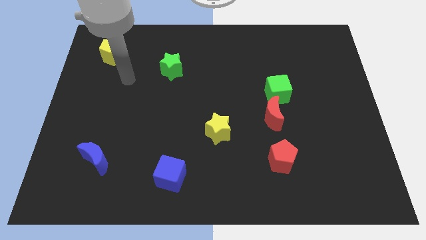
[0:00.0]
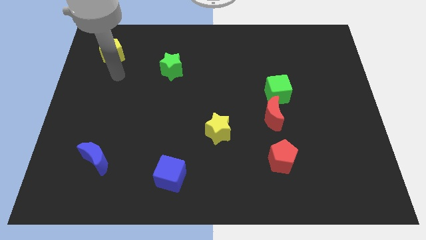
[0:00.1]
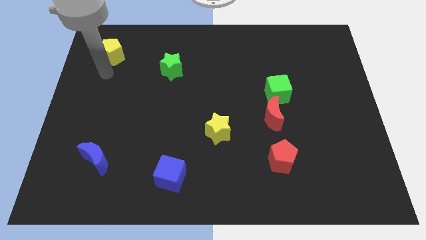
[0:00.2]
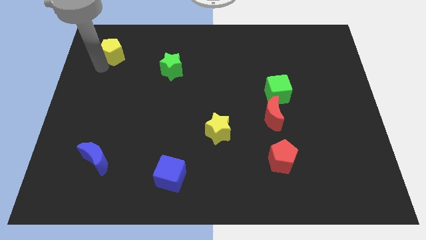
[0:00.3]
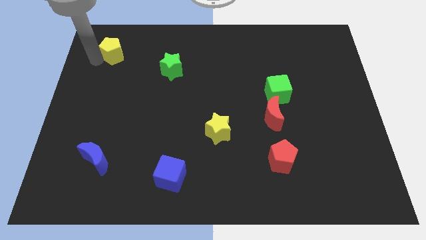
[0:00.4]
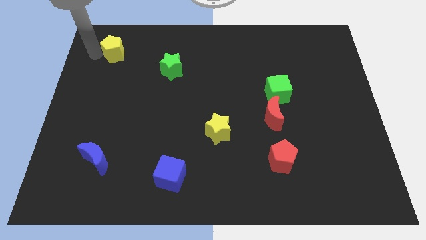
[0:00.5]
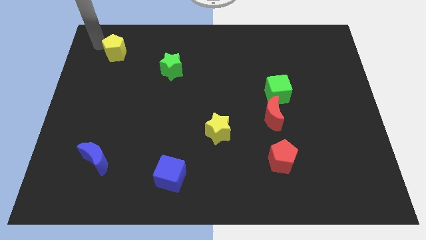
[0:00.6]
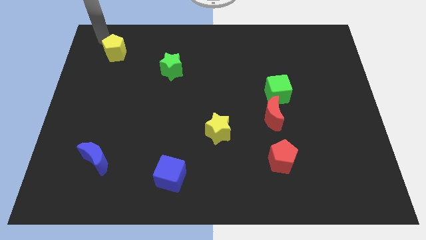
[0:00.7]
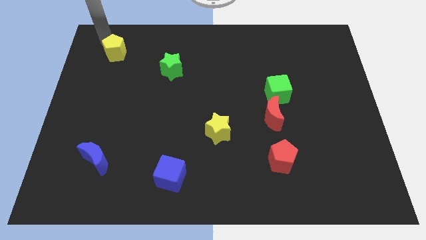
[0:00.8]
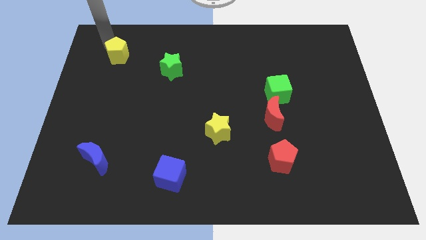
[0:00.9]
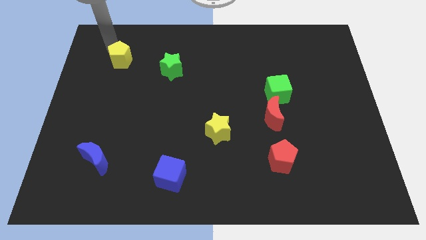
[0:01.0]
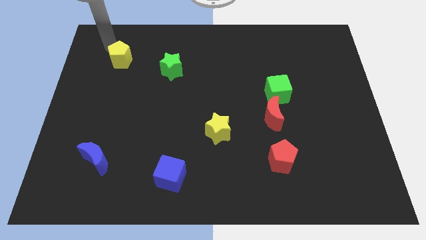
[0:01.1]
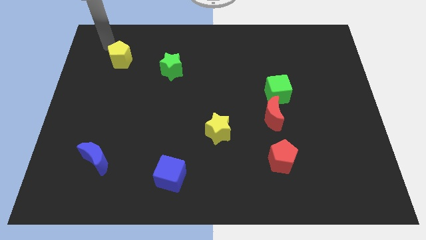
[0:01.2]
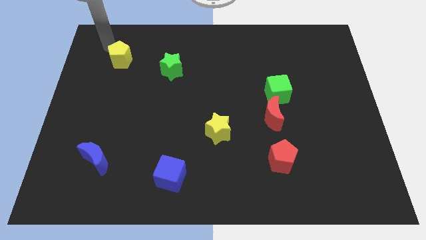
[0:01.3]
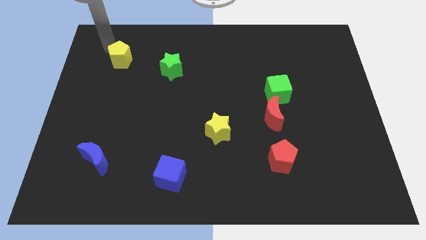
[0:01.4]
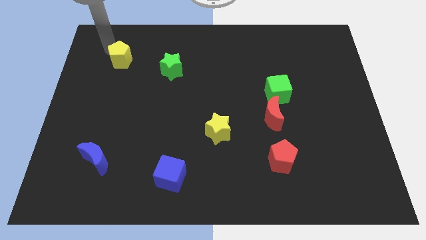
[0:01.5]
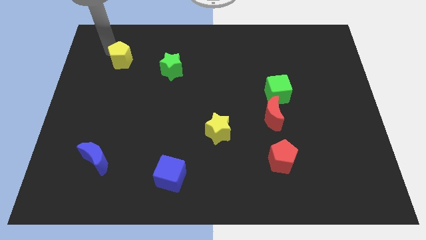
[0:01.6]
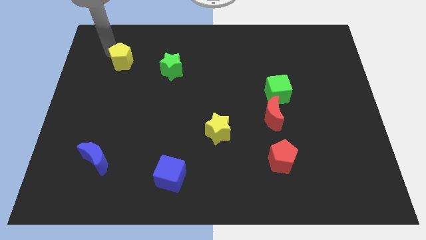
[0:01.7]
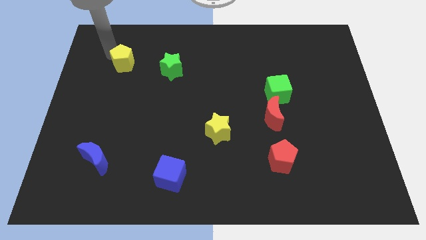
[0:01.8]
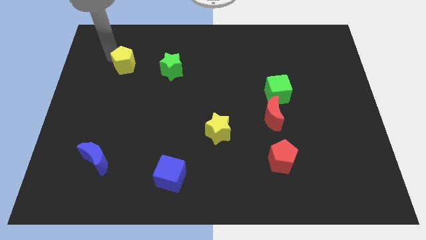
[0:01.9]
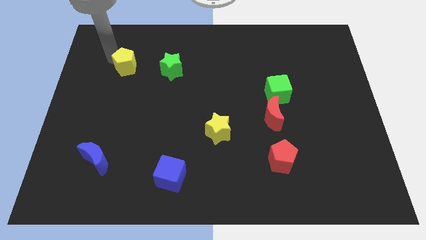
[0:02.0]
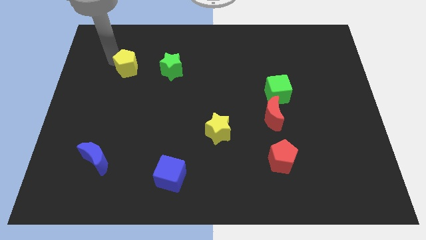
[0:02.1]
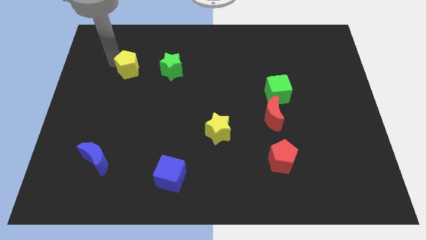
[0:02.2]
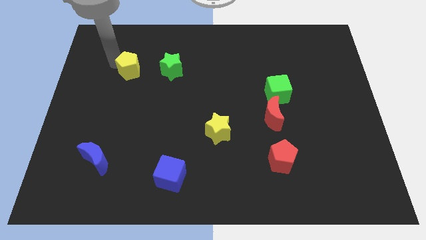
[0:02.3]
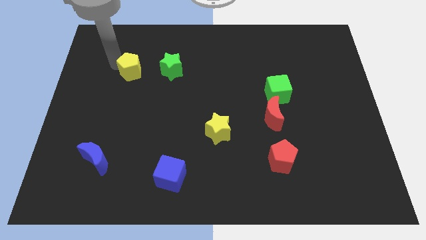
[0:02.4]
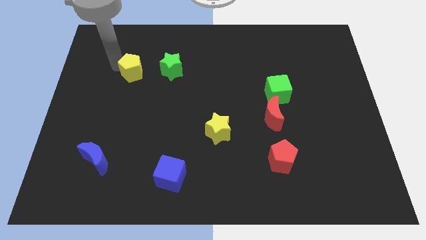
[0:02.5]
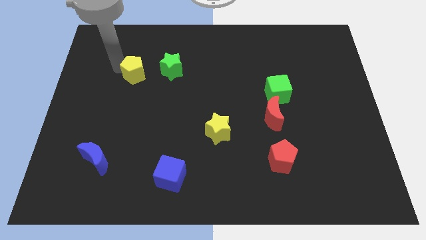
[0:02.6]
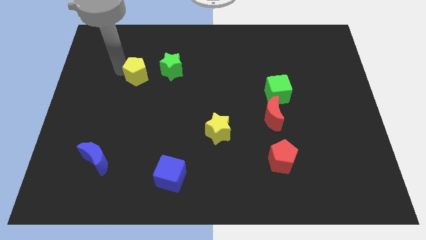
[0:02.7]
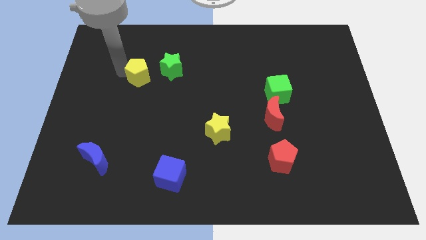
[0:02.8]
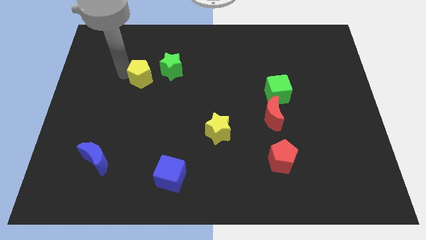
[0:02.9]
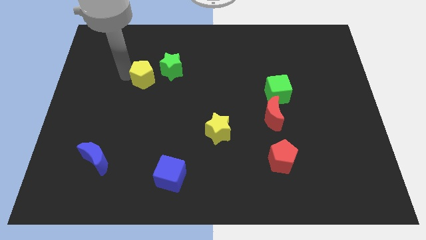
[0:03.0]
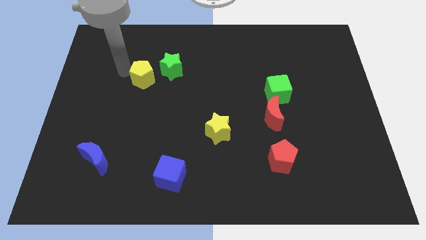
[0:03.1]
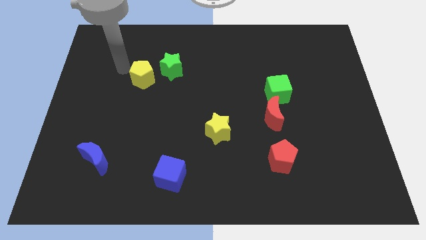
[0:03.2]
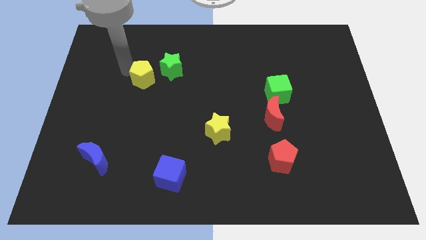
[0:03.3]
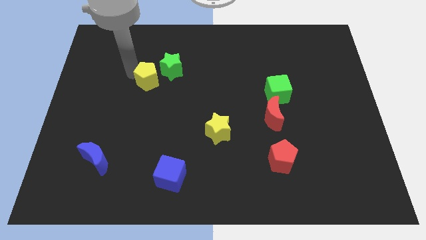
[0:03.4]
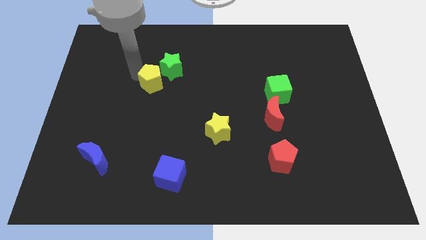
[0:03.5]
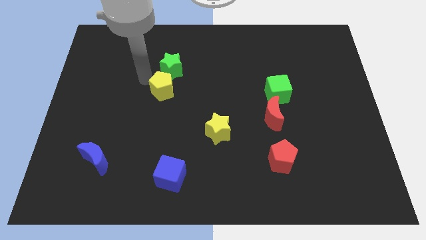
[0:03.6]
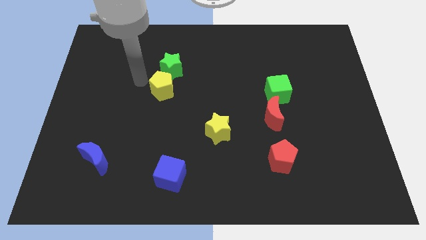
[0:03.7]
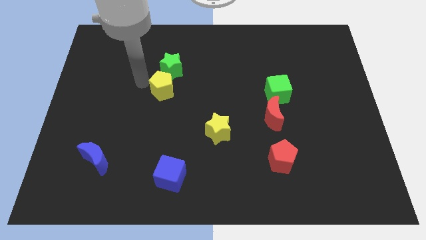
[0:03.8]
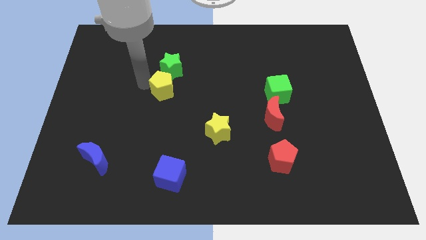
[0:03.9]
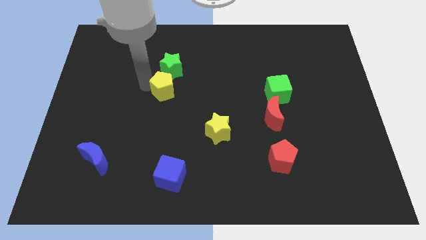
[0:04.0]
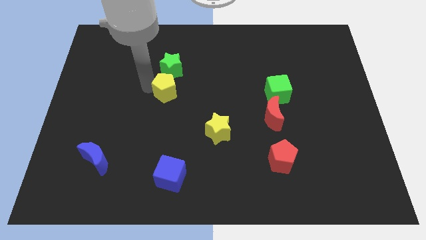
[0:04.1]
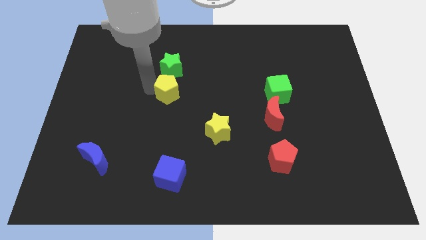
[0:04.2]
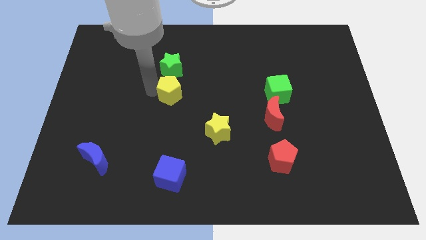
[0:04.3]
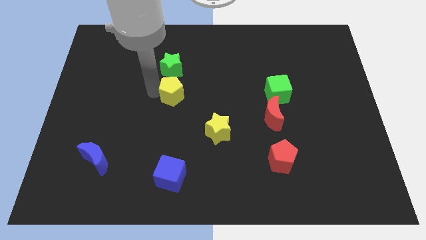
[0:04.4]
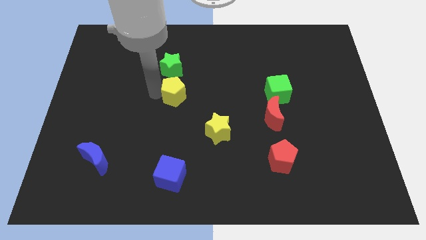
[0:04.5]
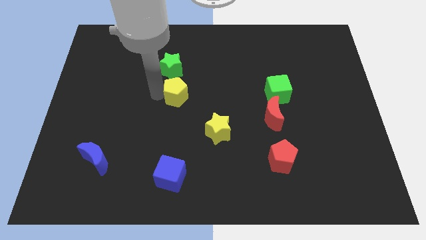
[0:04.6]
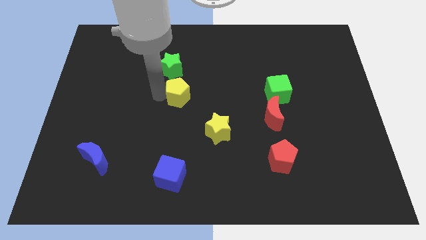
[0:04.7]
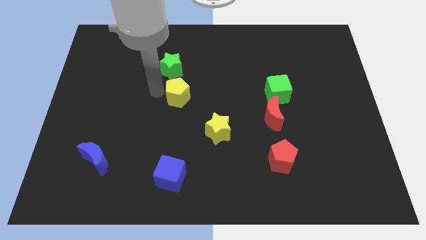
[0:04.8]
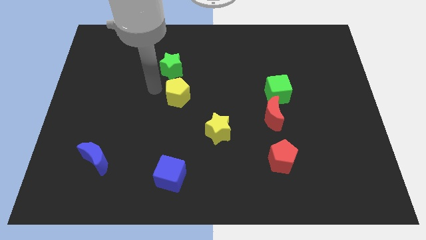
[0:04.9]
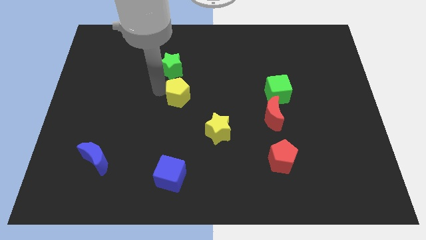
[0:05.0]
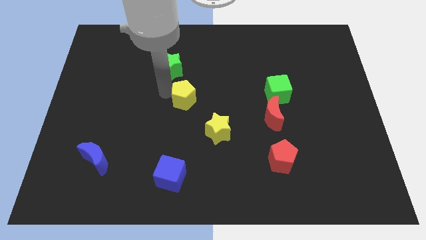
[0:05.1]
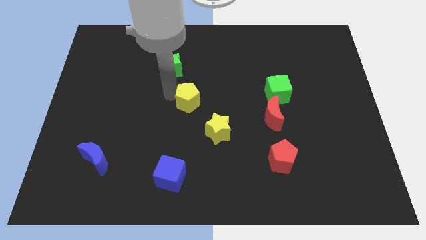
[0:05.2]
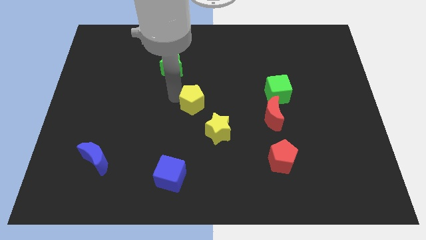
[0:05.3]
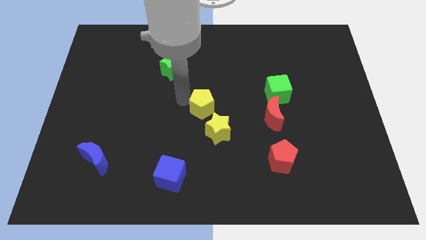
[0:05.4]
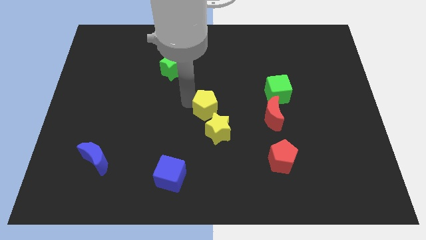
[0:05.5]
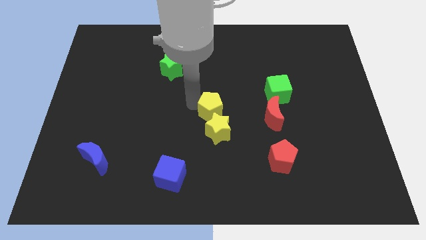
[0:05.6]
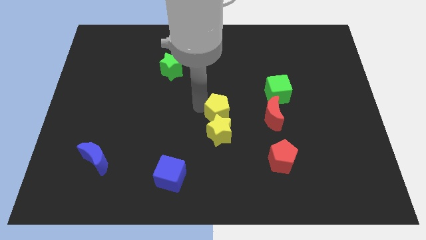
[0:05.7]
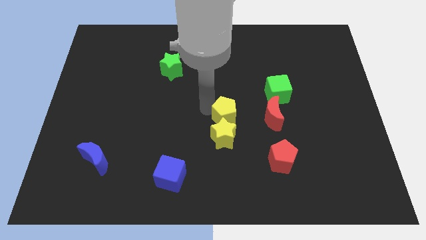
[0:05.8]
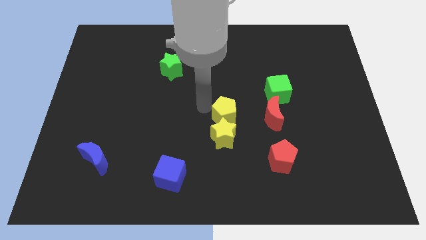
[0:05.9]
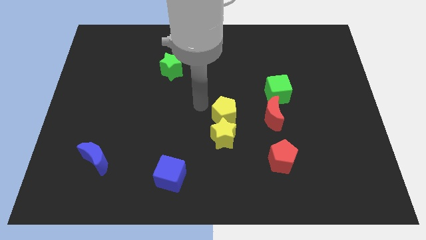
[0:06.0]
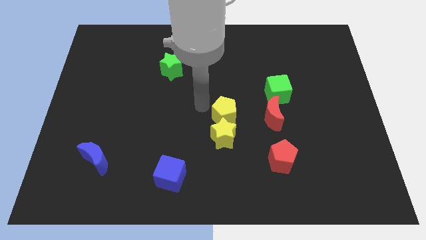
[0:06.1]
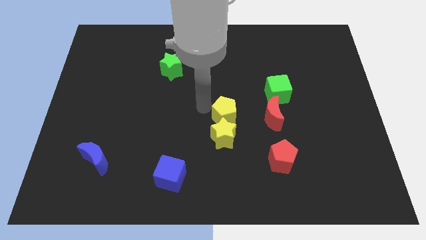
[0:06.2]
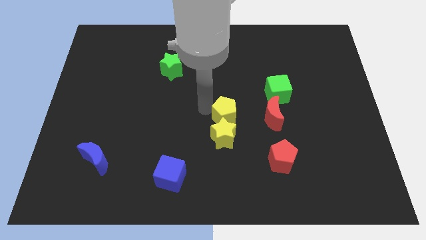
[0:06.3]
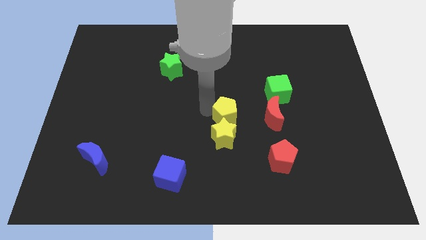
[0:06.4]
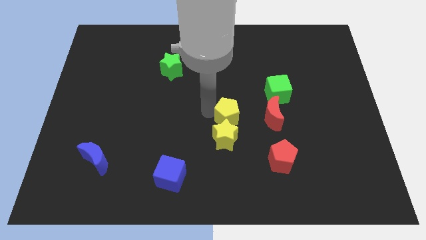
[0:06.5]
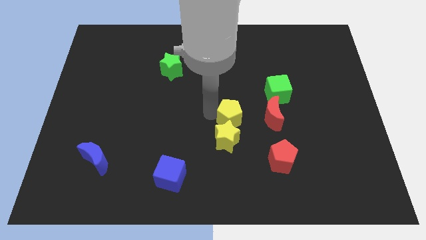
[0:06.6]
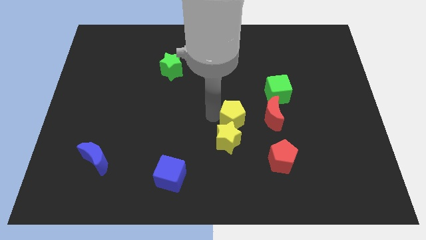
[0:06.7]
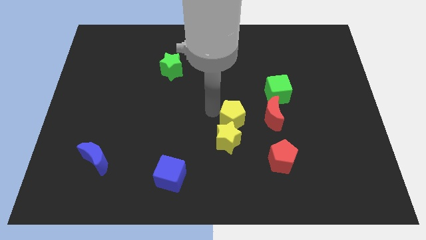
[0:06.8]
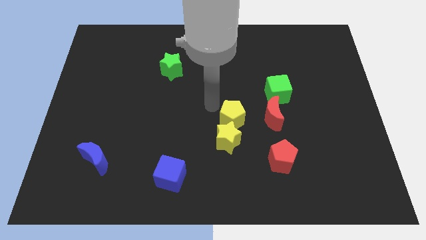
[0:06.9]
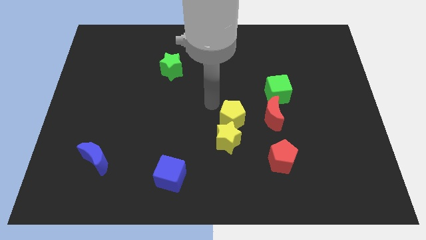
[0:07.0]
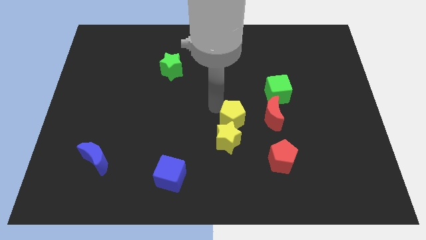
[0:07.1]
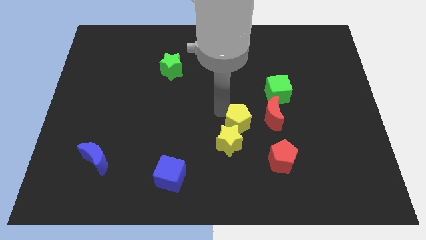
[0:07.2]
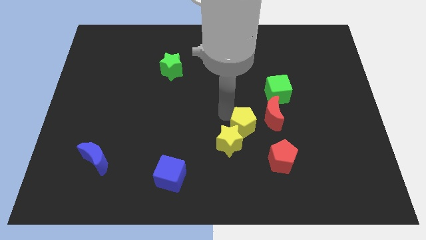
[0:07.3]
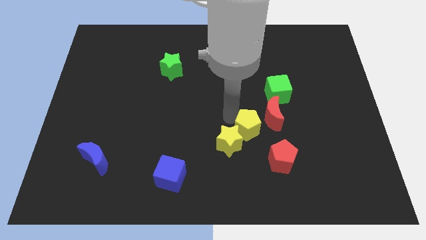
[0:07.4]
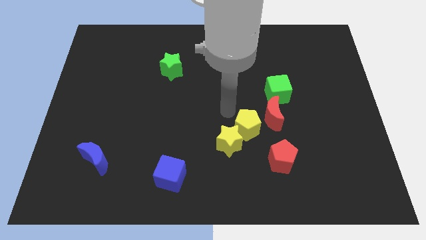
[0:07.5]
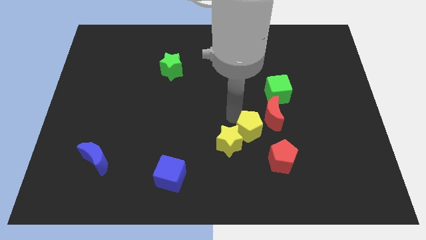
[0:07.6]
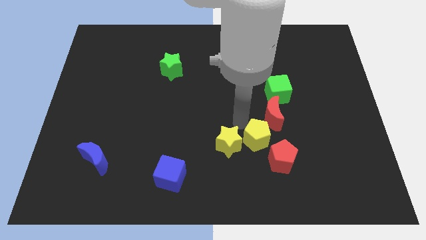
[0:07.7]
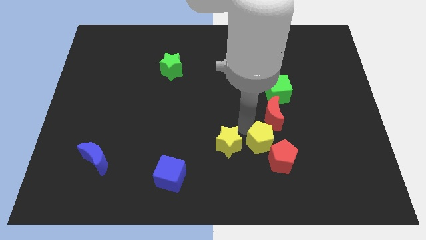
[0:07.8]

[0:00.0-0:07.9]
put the yellow pentagon towards the red pentagon

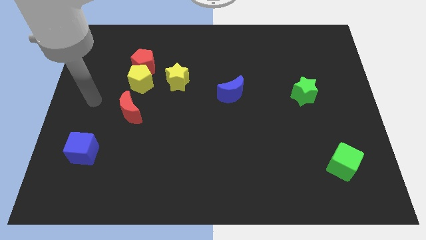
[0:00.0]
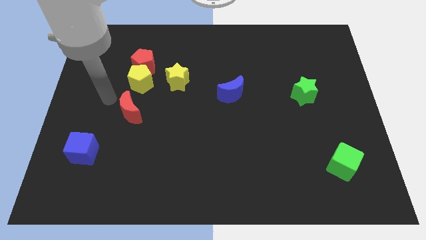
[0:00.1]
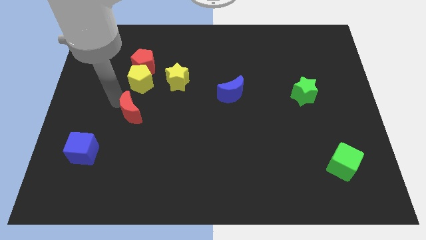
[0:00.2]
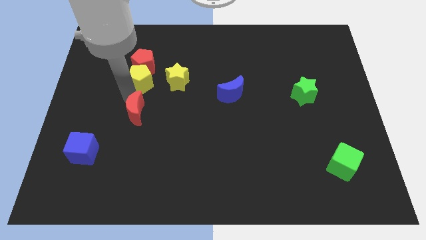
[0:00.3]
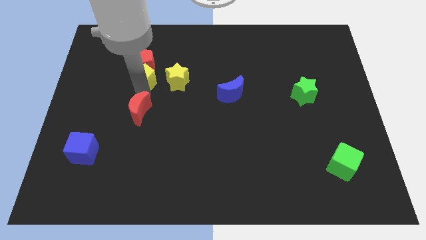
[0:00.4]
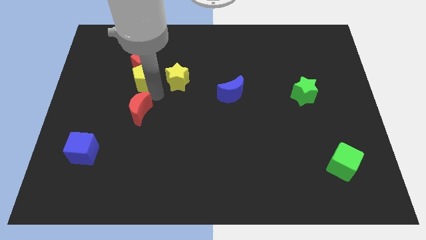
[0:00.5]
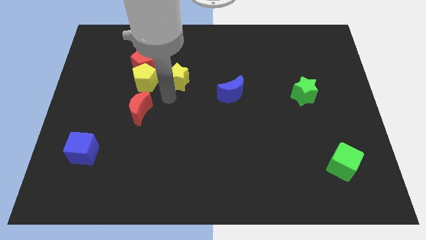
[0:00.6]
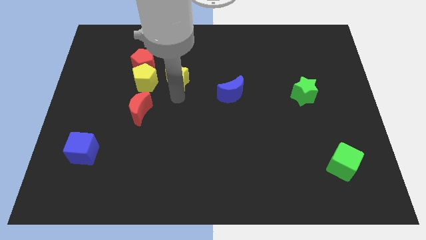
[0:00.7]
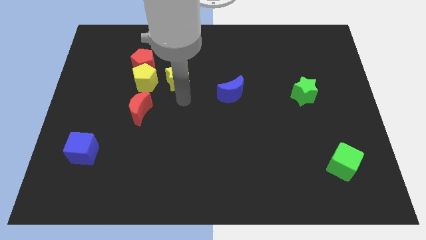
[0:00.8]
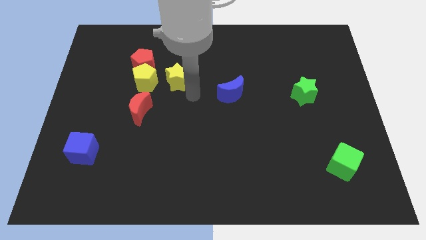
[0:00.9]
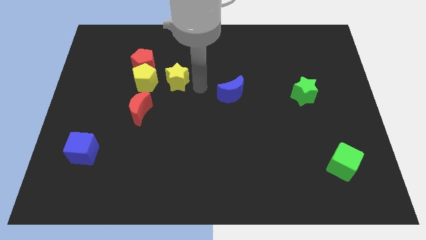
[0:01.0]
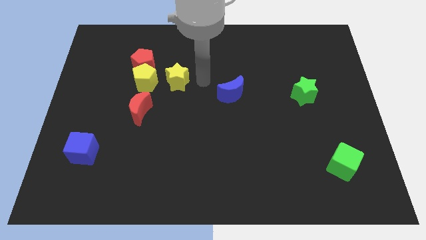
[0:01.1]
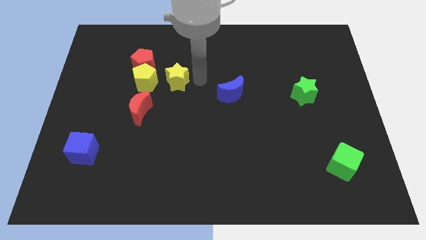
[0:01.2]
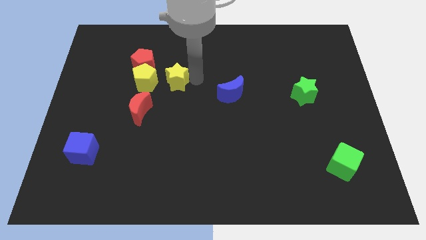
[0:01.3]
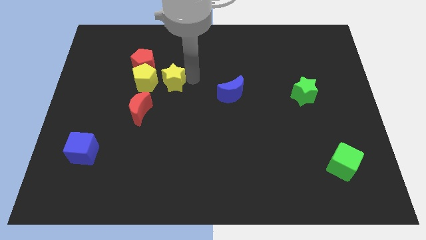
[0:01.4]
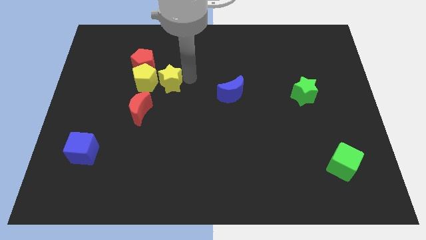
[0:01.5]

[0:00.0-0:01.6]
slide the yellow star towards the yellow pentagon
